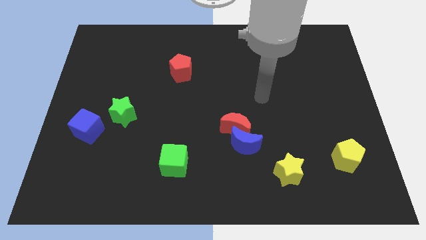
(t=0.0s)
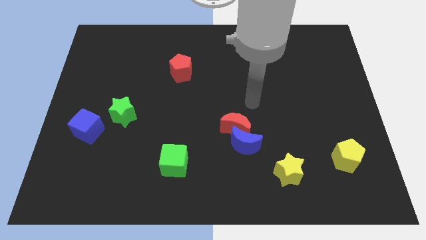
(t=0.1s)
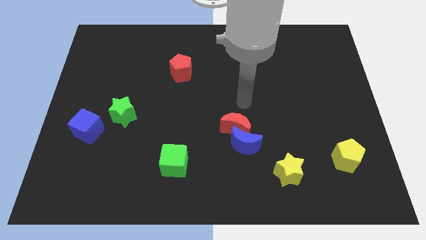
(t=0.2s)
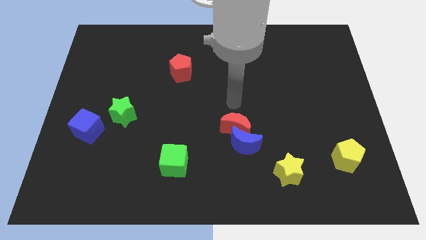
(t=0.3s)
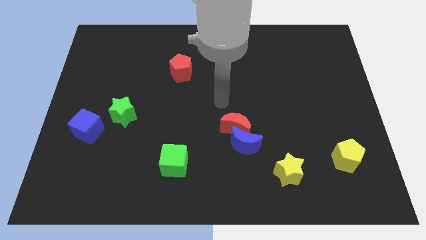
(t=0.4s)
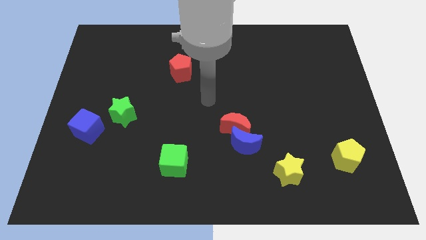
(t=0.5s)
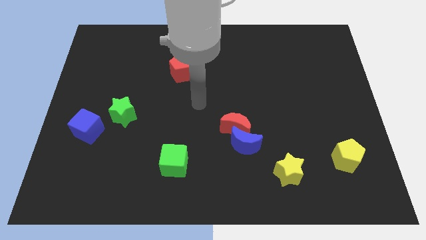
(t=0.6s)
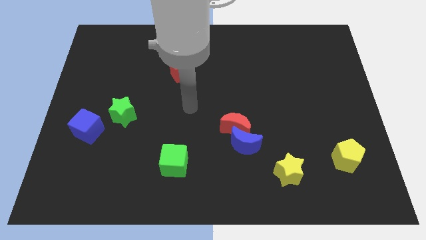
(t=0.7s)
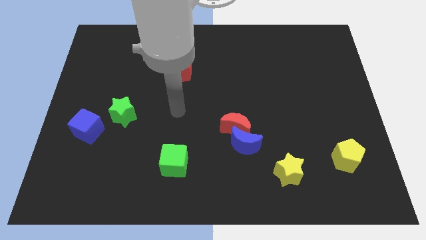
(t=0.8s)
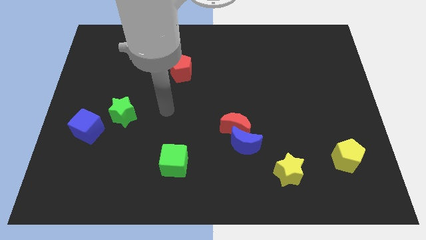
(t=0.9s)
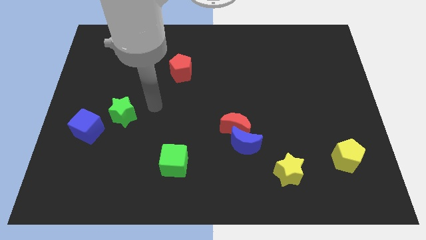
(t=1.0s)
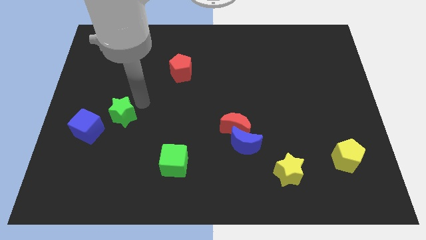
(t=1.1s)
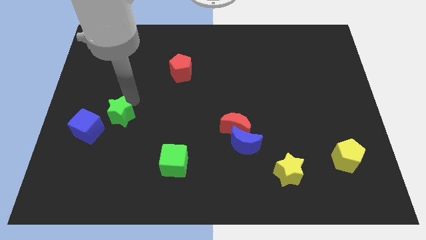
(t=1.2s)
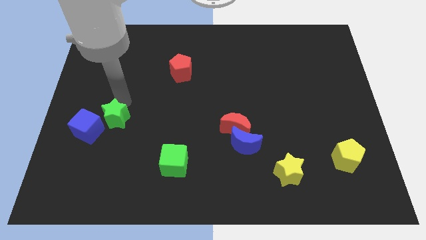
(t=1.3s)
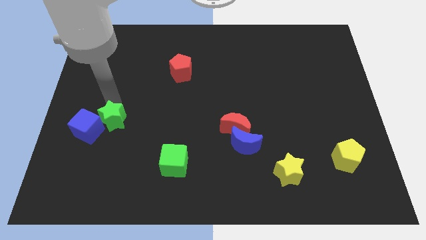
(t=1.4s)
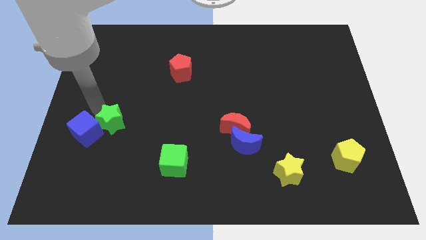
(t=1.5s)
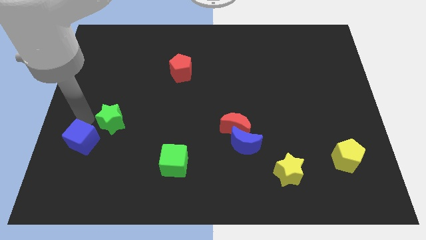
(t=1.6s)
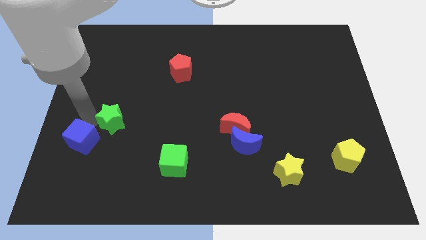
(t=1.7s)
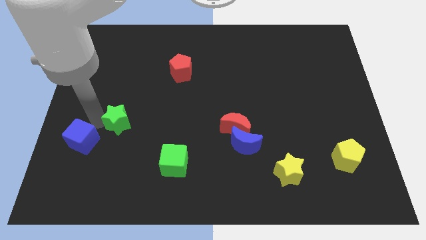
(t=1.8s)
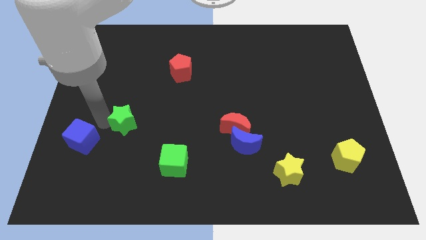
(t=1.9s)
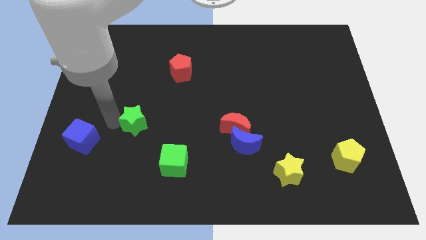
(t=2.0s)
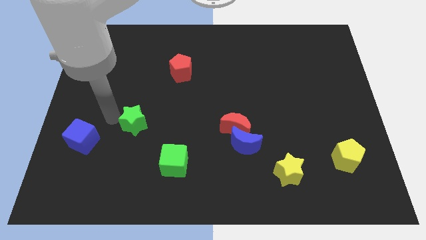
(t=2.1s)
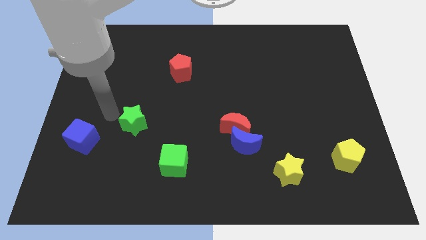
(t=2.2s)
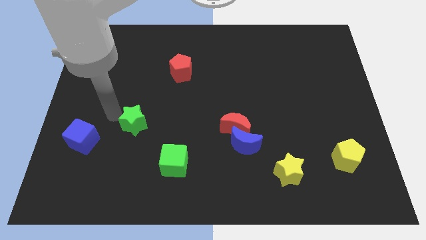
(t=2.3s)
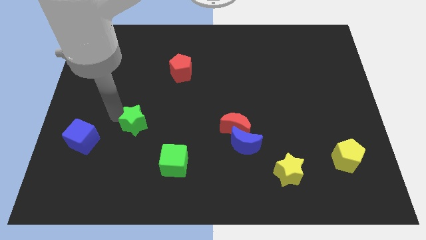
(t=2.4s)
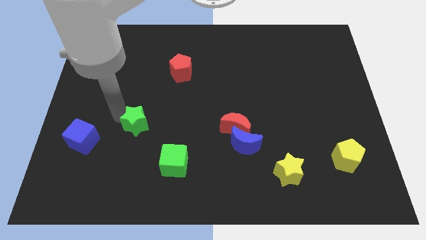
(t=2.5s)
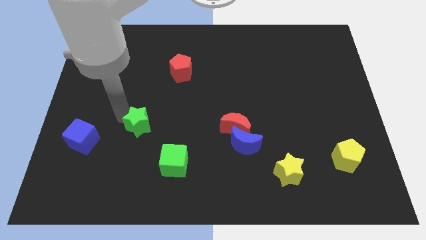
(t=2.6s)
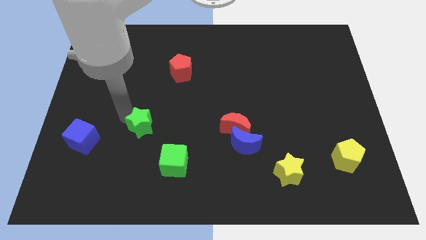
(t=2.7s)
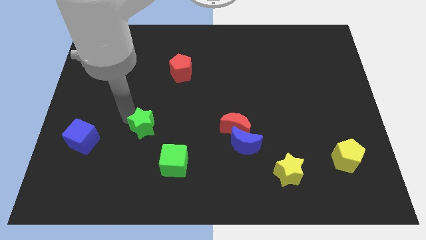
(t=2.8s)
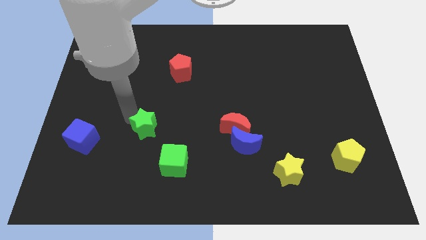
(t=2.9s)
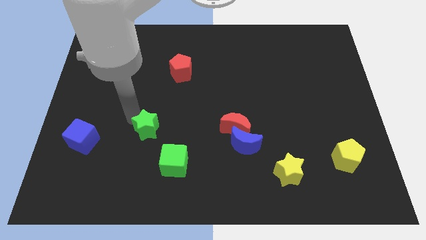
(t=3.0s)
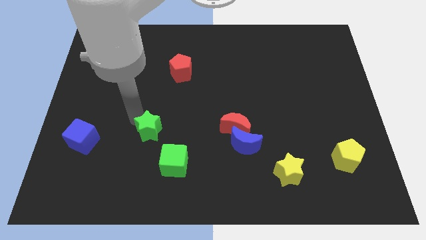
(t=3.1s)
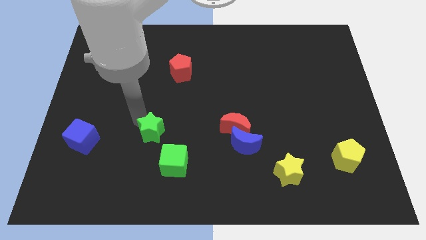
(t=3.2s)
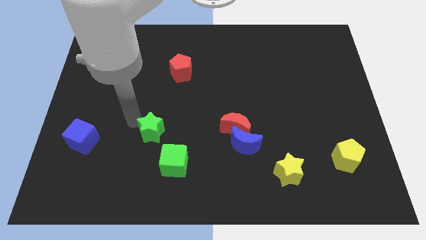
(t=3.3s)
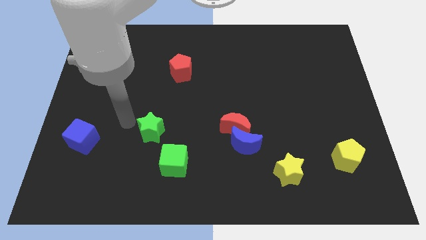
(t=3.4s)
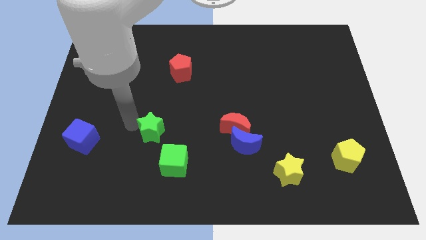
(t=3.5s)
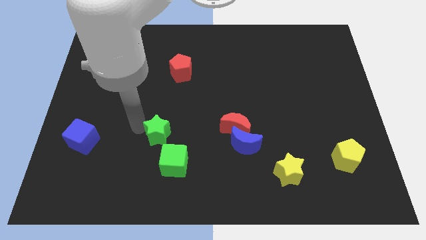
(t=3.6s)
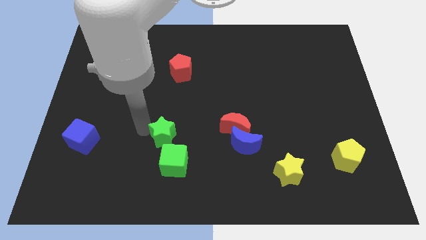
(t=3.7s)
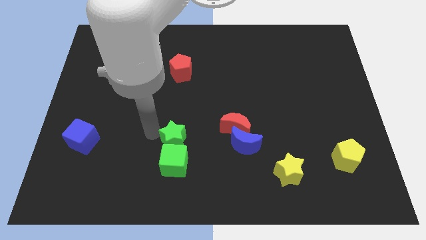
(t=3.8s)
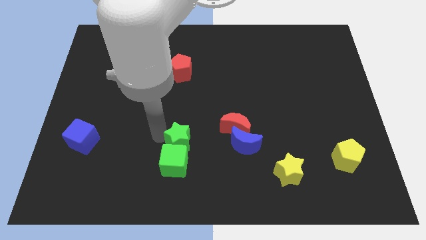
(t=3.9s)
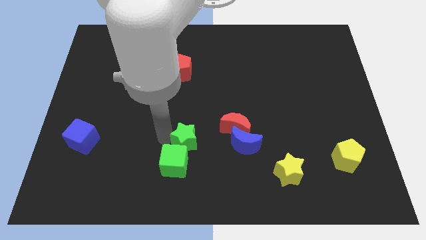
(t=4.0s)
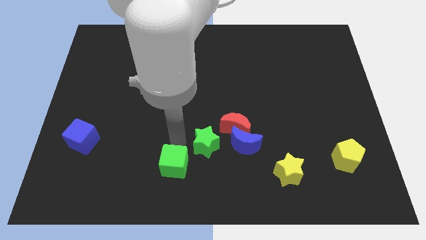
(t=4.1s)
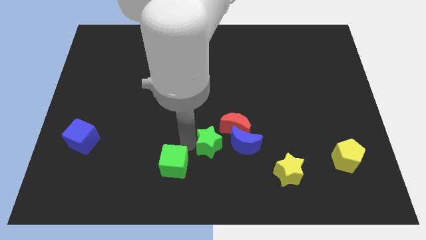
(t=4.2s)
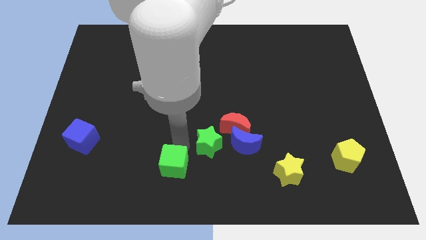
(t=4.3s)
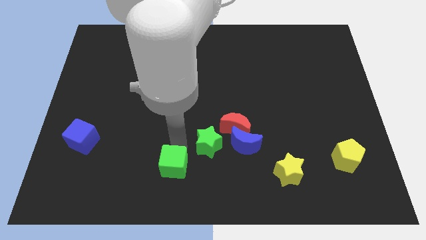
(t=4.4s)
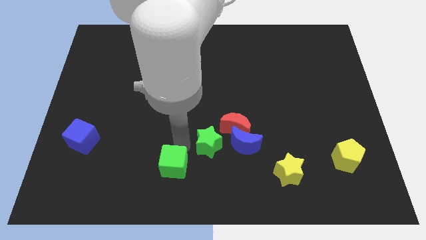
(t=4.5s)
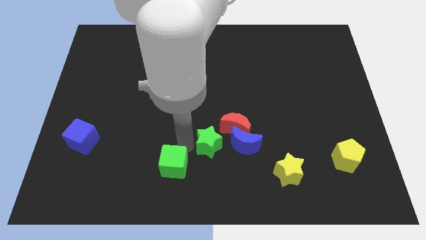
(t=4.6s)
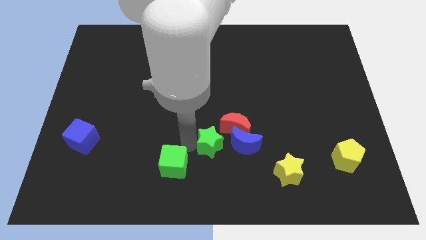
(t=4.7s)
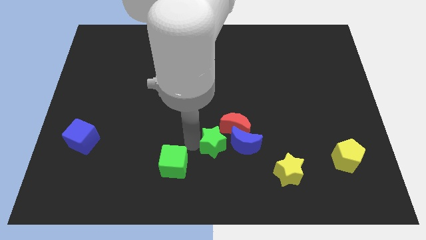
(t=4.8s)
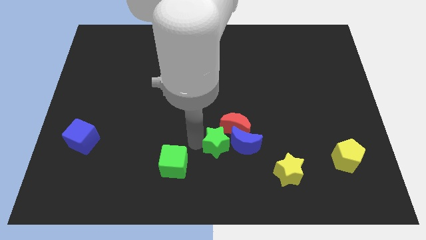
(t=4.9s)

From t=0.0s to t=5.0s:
put the green star towards the blue moon

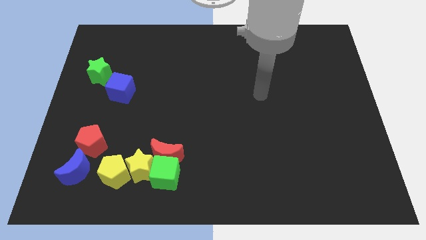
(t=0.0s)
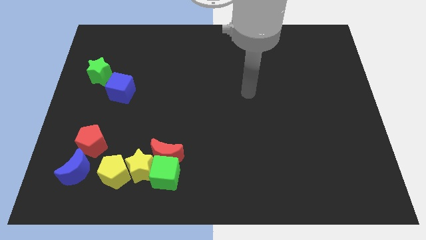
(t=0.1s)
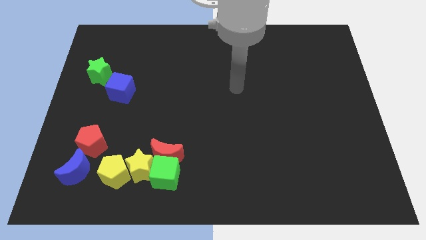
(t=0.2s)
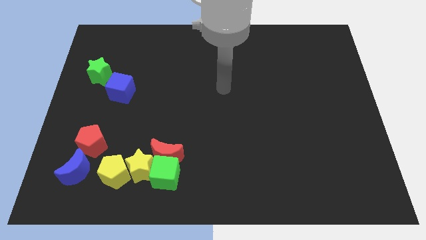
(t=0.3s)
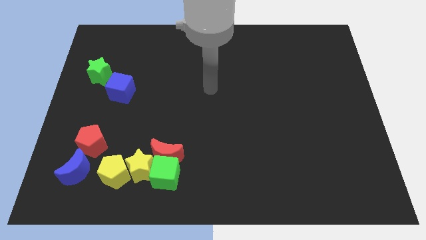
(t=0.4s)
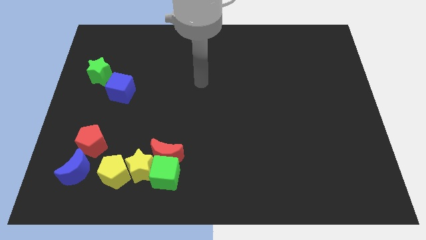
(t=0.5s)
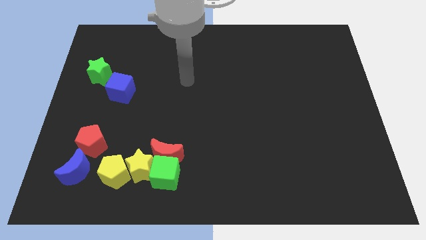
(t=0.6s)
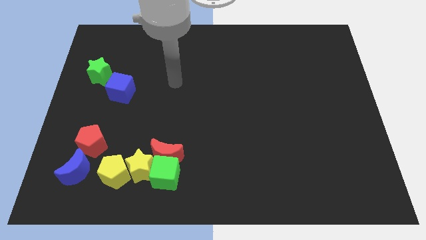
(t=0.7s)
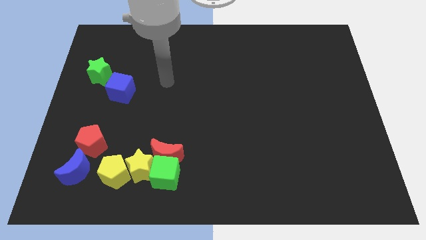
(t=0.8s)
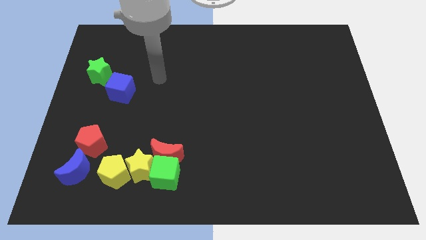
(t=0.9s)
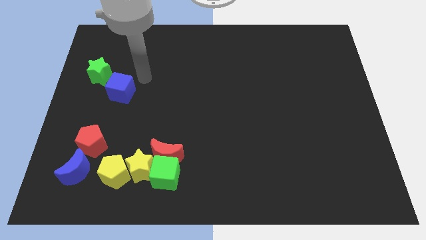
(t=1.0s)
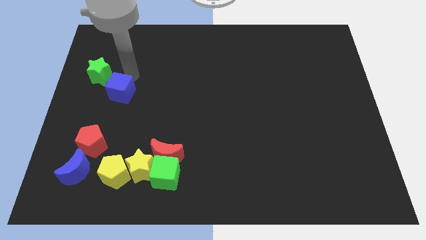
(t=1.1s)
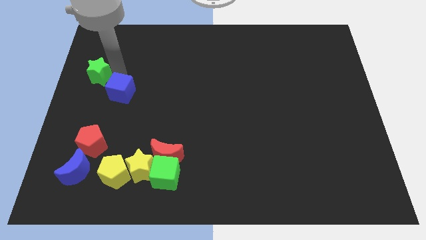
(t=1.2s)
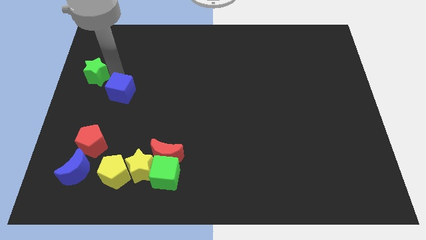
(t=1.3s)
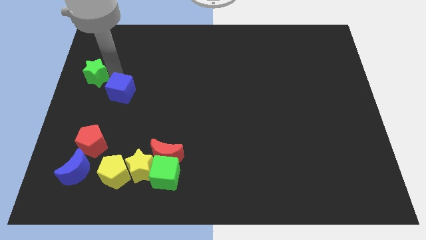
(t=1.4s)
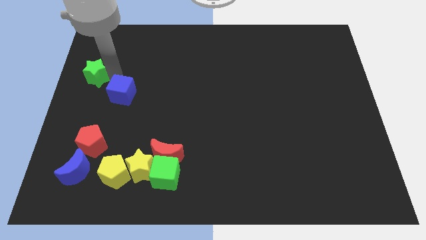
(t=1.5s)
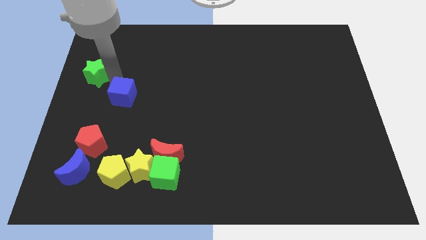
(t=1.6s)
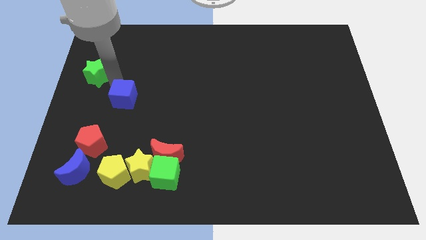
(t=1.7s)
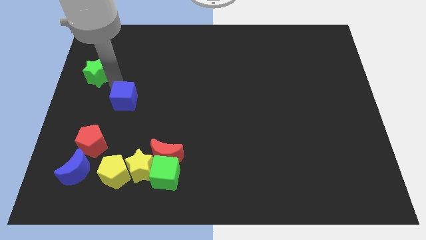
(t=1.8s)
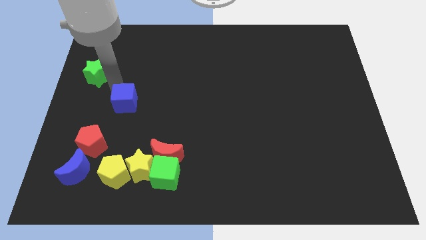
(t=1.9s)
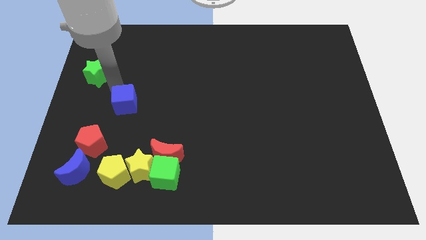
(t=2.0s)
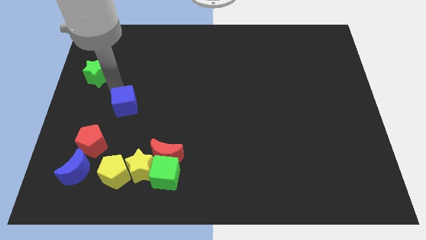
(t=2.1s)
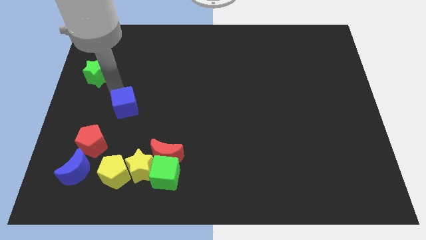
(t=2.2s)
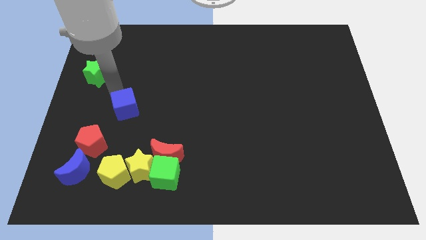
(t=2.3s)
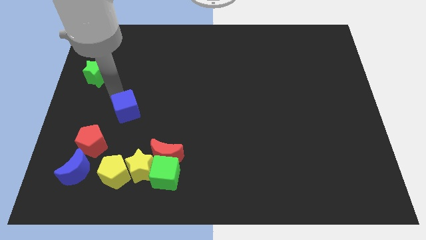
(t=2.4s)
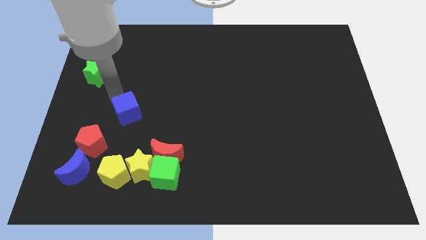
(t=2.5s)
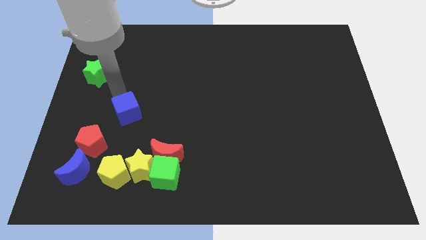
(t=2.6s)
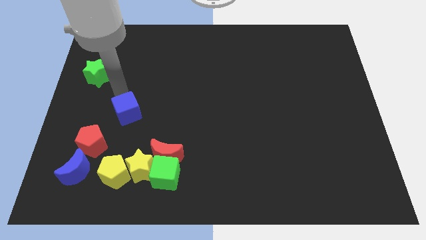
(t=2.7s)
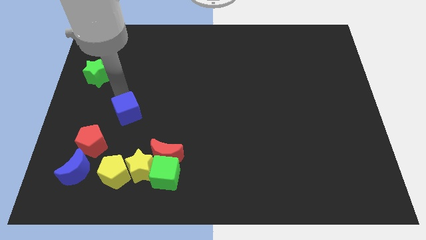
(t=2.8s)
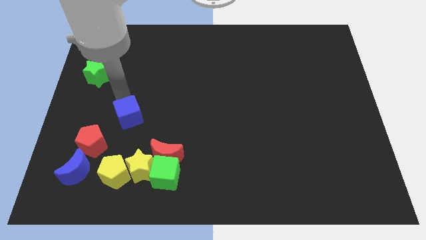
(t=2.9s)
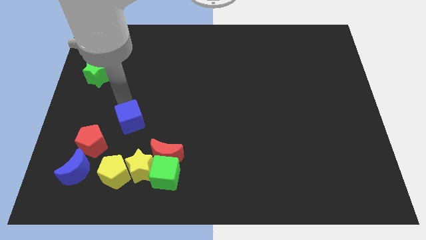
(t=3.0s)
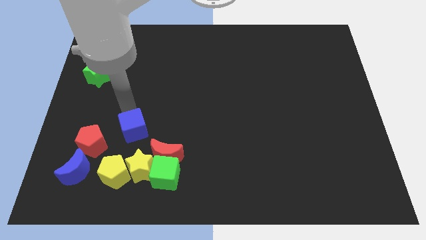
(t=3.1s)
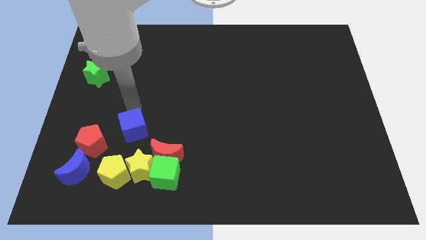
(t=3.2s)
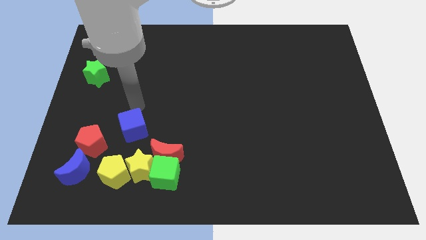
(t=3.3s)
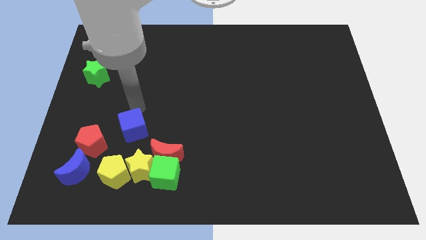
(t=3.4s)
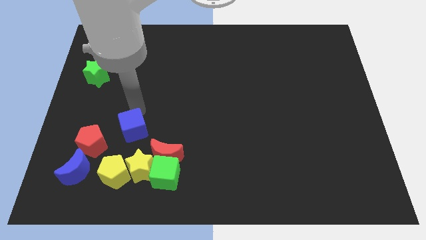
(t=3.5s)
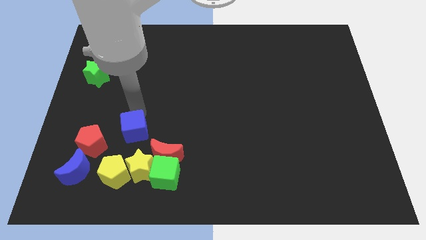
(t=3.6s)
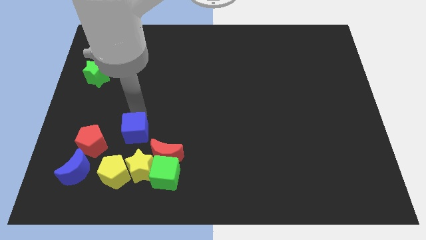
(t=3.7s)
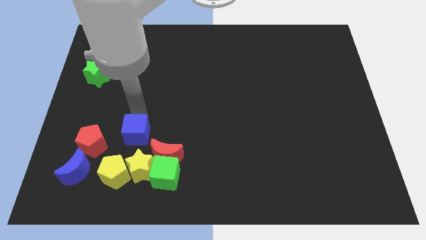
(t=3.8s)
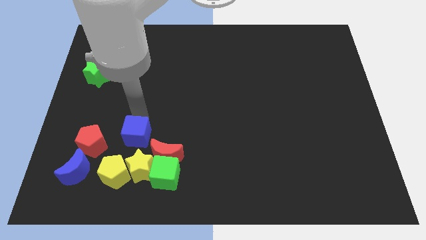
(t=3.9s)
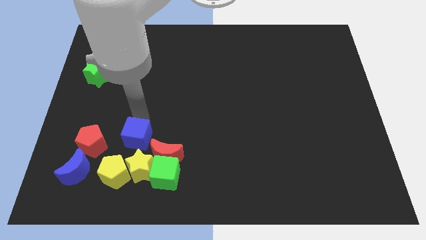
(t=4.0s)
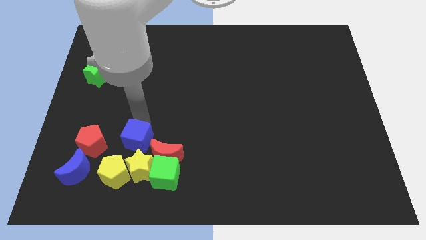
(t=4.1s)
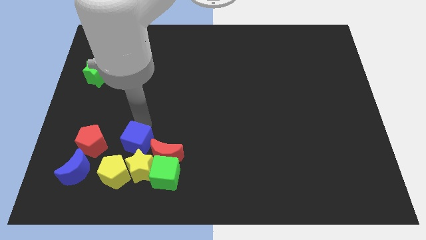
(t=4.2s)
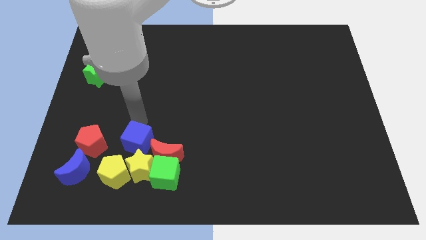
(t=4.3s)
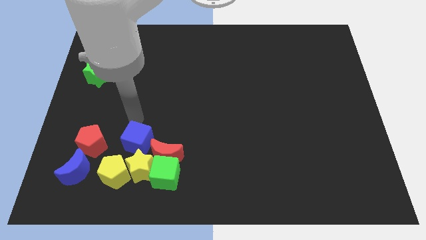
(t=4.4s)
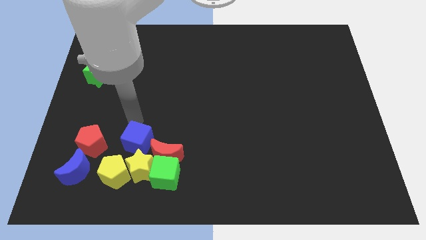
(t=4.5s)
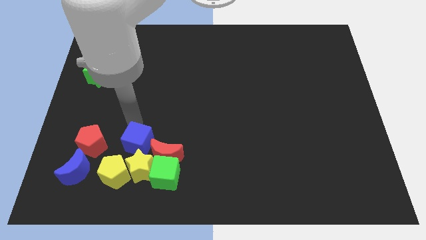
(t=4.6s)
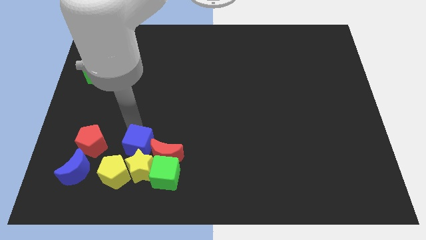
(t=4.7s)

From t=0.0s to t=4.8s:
push the blue cube close to the yellow star
